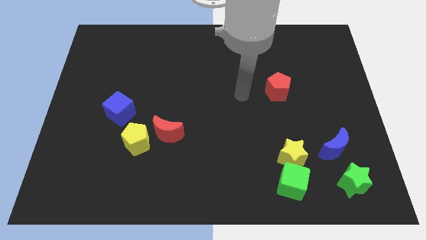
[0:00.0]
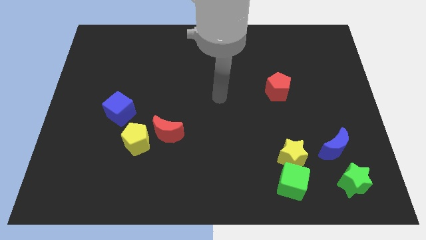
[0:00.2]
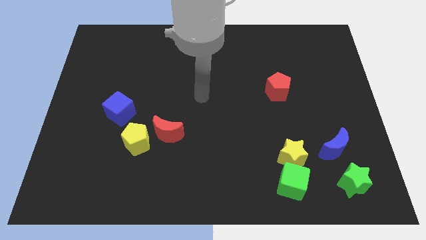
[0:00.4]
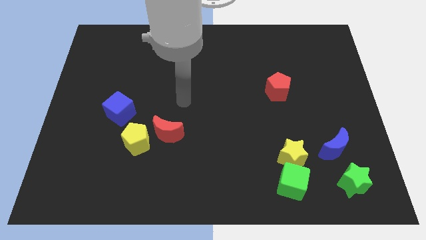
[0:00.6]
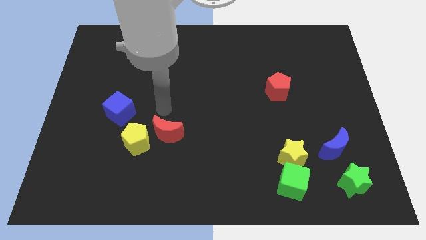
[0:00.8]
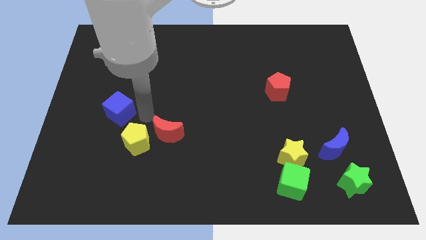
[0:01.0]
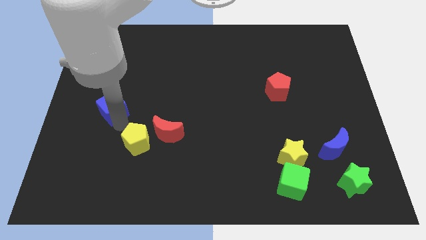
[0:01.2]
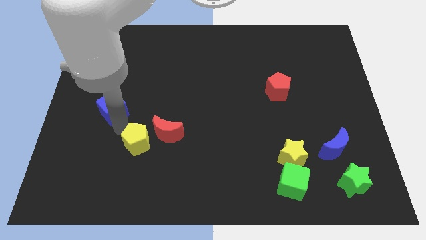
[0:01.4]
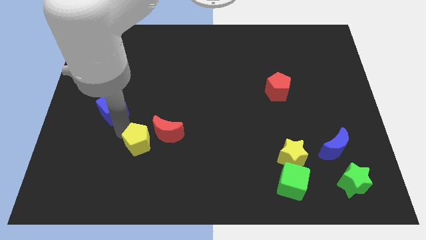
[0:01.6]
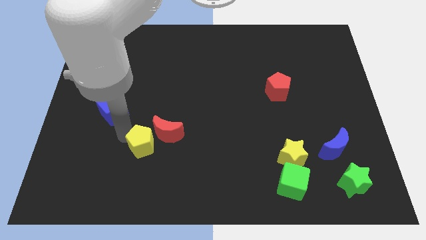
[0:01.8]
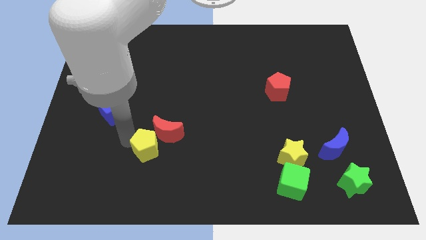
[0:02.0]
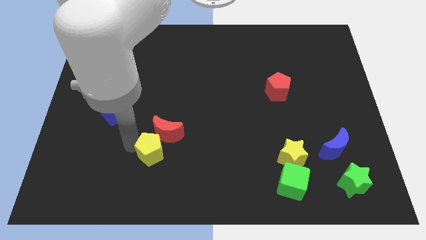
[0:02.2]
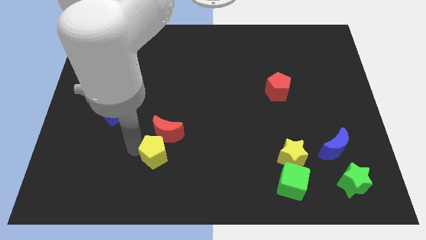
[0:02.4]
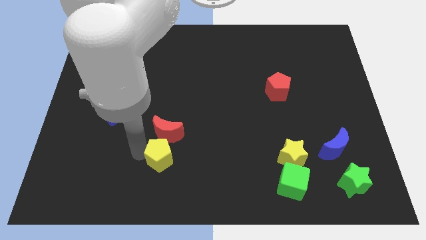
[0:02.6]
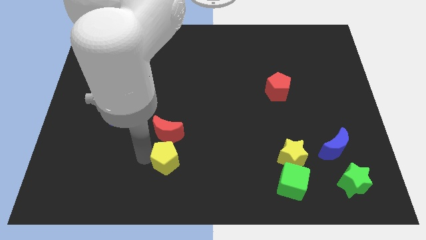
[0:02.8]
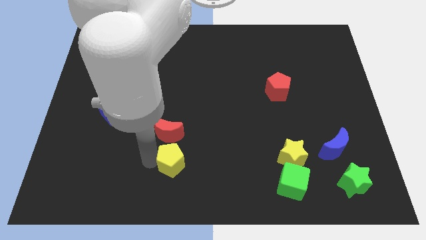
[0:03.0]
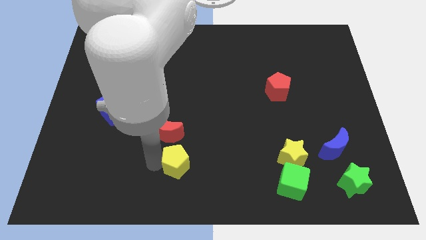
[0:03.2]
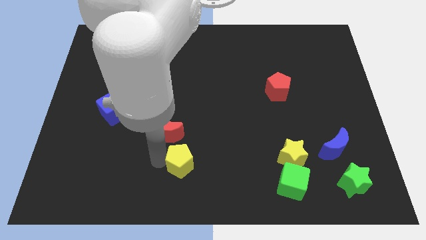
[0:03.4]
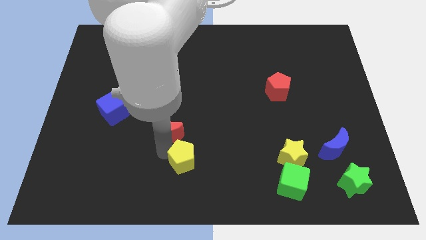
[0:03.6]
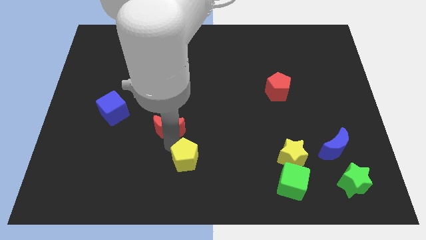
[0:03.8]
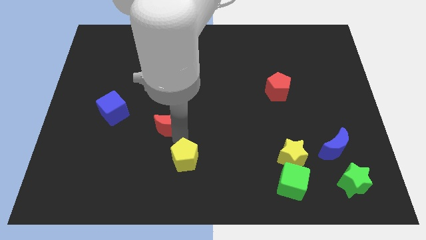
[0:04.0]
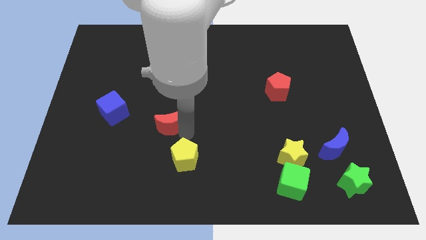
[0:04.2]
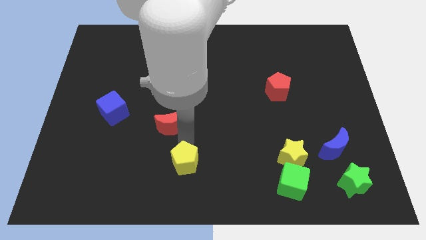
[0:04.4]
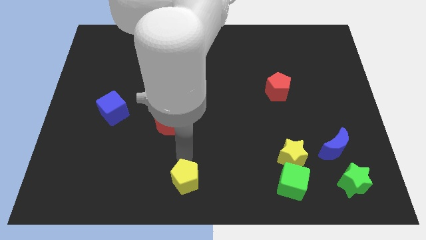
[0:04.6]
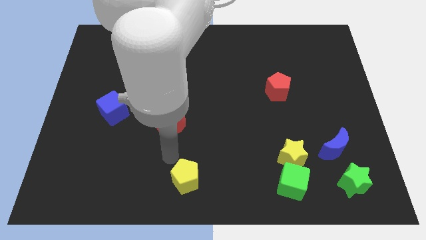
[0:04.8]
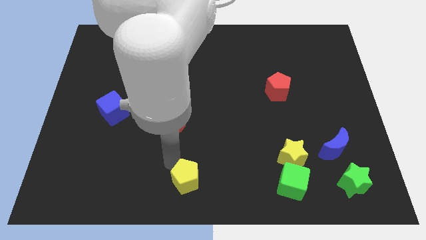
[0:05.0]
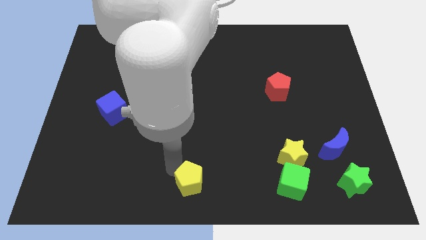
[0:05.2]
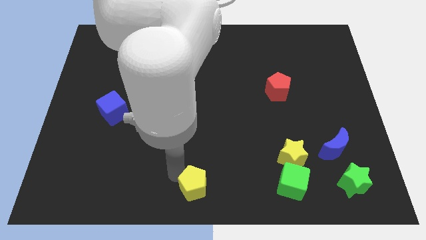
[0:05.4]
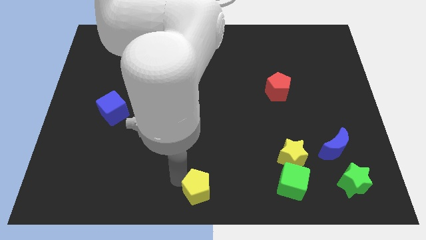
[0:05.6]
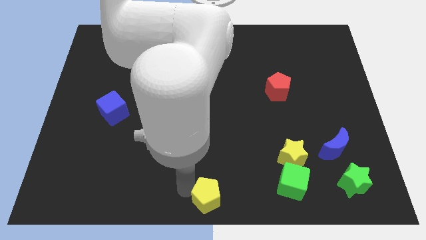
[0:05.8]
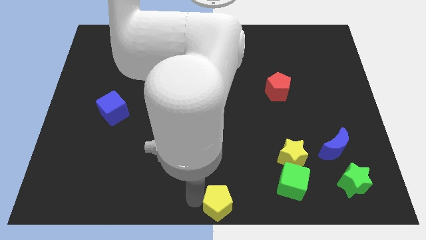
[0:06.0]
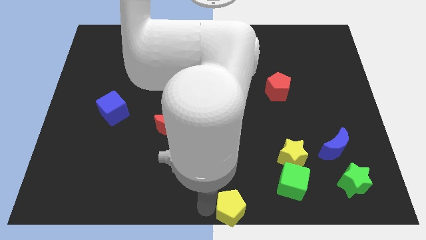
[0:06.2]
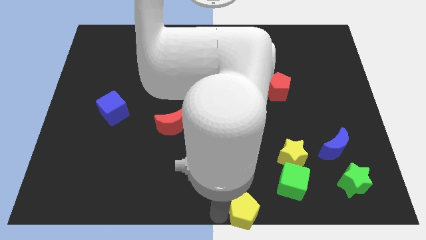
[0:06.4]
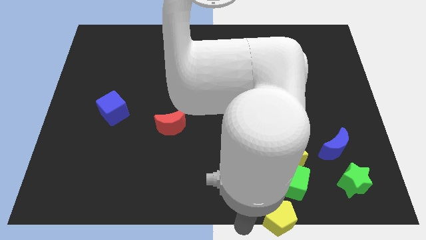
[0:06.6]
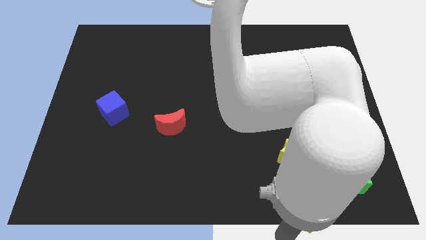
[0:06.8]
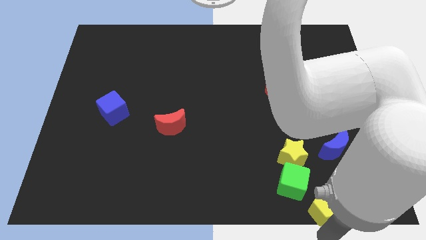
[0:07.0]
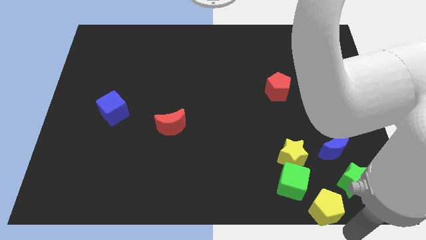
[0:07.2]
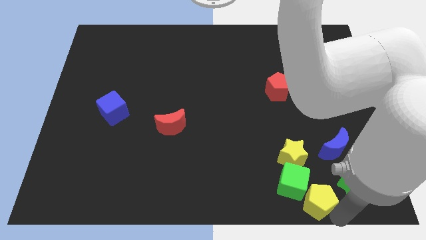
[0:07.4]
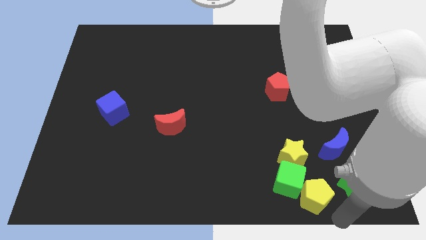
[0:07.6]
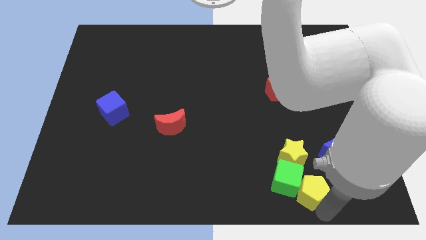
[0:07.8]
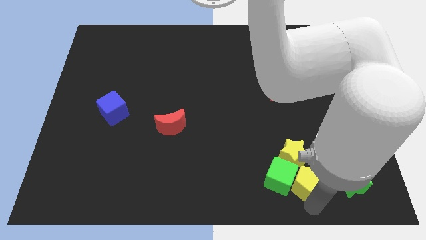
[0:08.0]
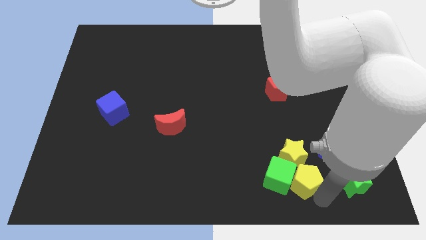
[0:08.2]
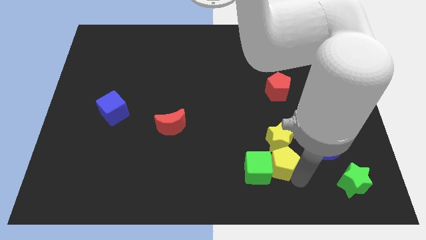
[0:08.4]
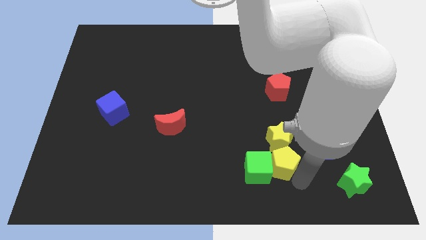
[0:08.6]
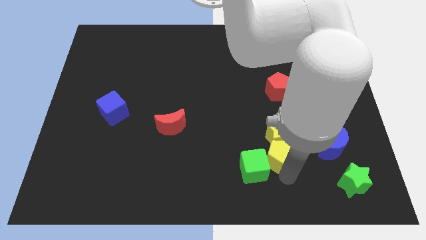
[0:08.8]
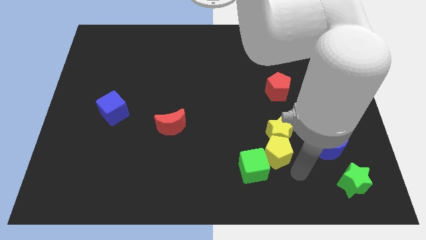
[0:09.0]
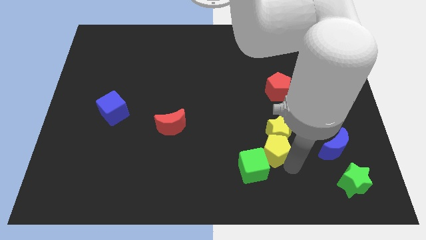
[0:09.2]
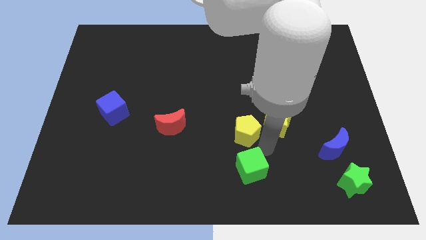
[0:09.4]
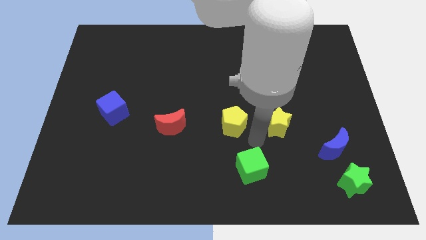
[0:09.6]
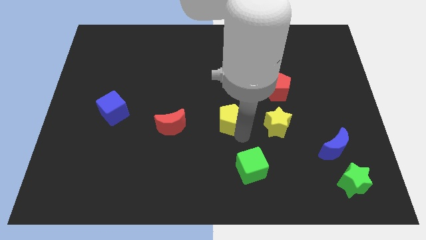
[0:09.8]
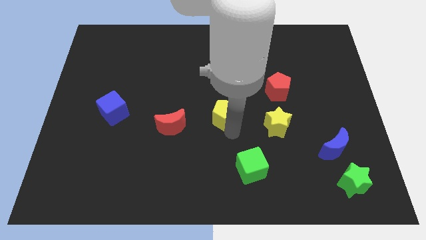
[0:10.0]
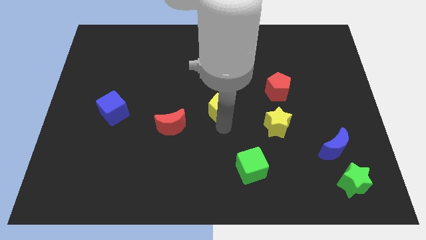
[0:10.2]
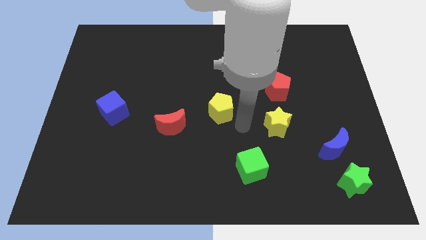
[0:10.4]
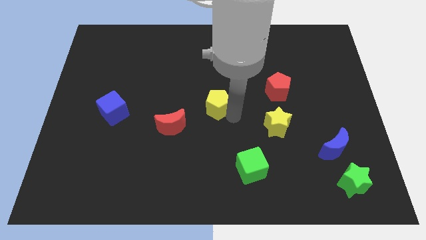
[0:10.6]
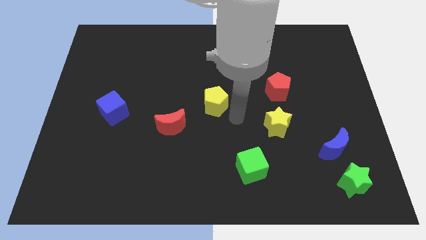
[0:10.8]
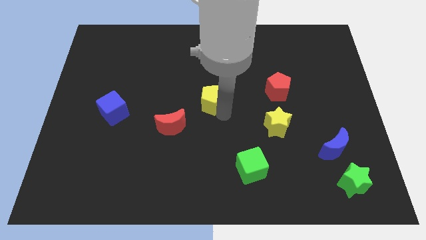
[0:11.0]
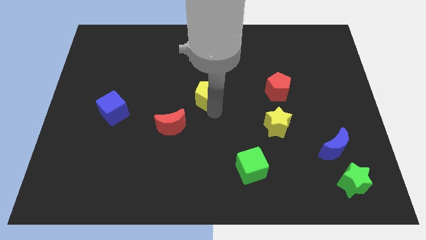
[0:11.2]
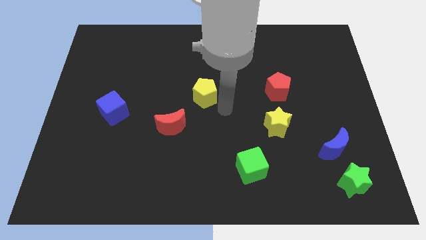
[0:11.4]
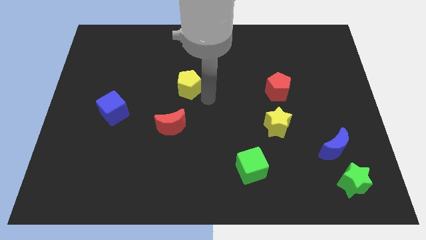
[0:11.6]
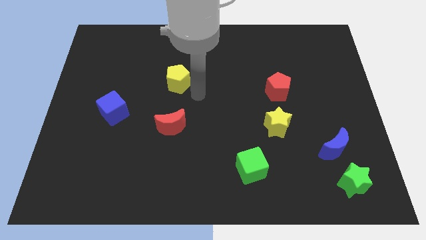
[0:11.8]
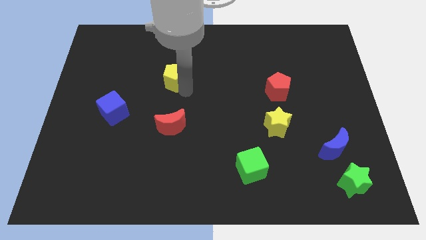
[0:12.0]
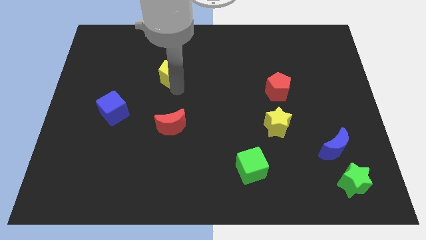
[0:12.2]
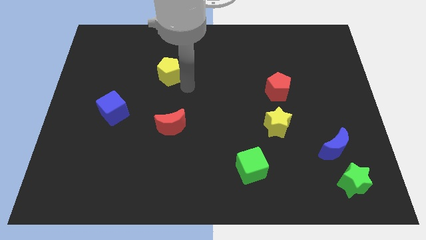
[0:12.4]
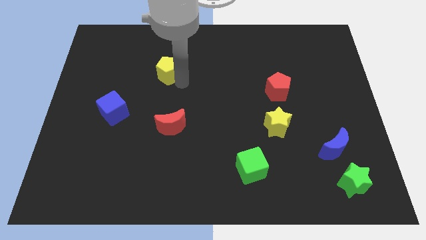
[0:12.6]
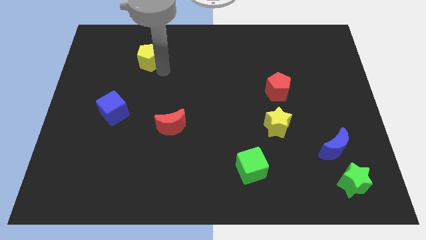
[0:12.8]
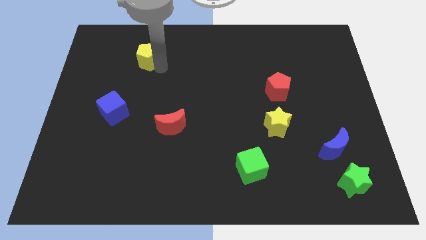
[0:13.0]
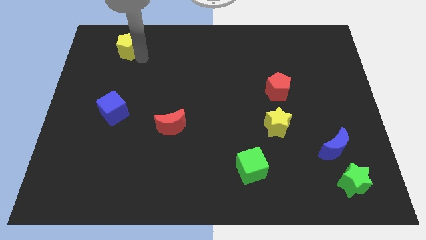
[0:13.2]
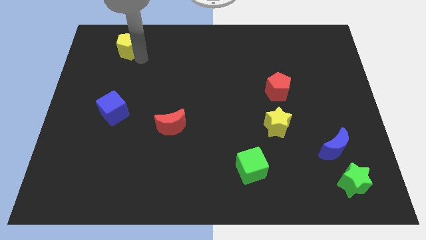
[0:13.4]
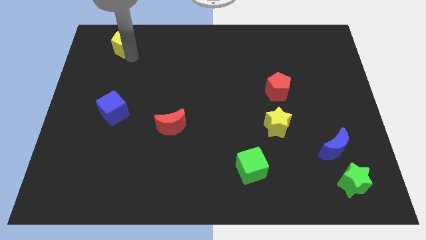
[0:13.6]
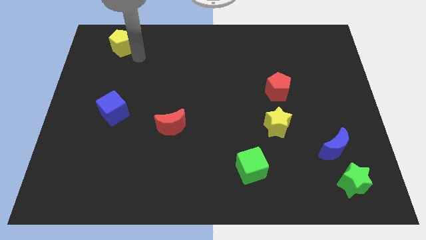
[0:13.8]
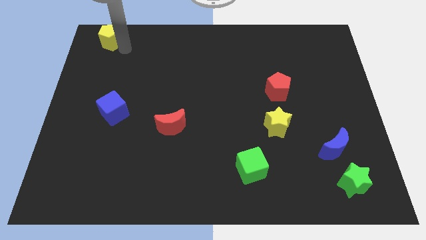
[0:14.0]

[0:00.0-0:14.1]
put the yellow pentagon to the top left
